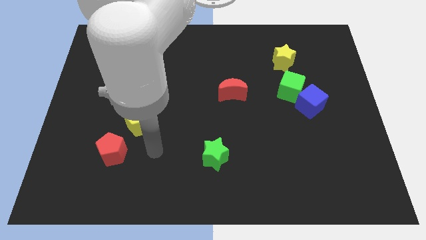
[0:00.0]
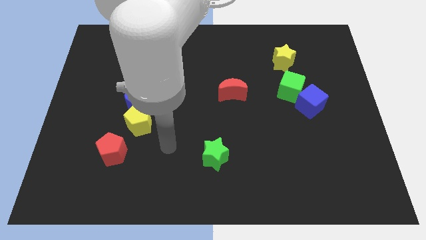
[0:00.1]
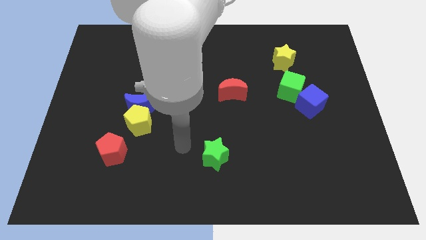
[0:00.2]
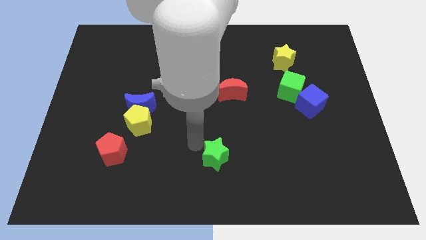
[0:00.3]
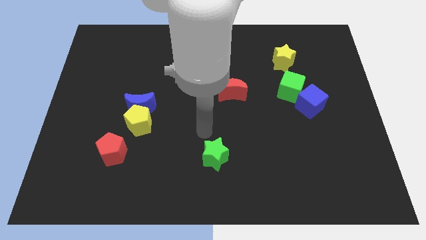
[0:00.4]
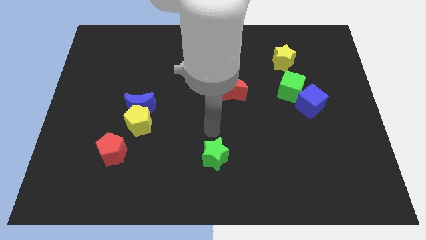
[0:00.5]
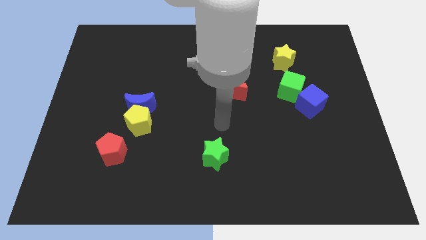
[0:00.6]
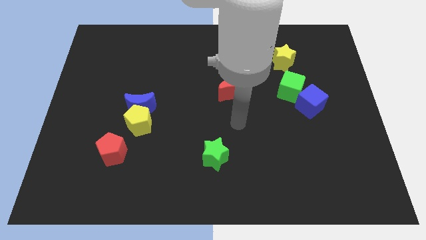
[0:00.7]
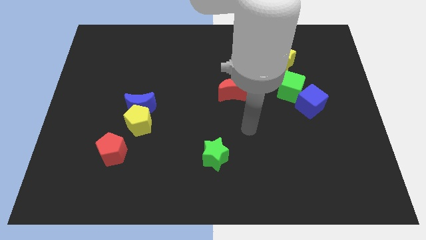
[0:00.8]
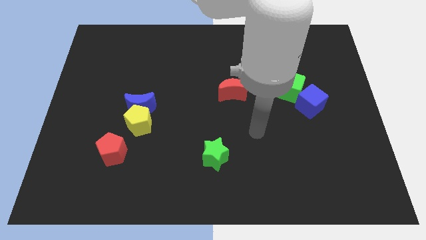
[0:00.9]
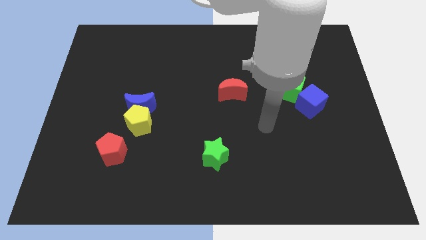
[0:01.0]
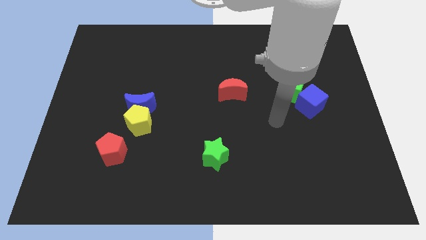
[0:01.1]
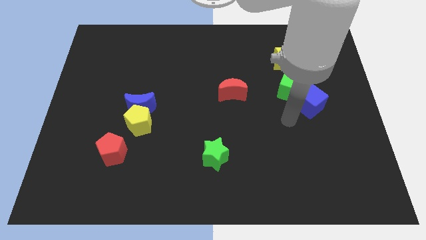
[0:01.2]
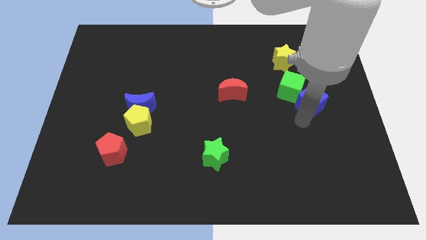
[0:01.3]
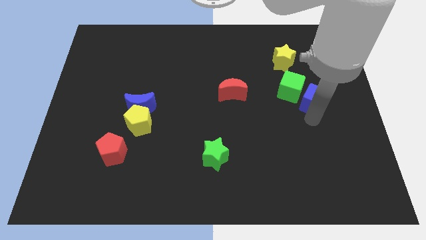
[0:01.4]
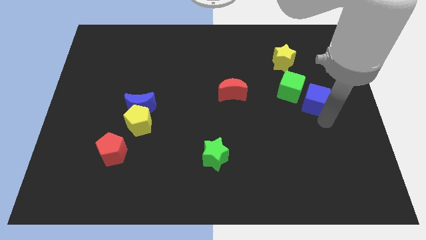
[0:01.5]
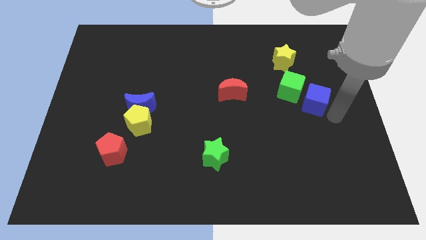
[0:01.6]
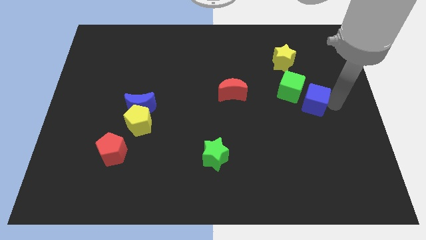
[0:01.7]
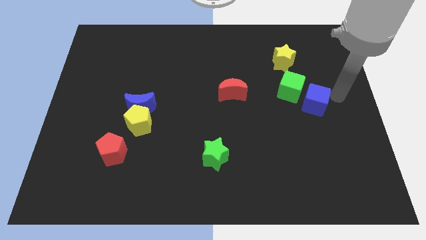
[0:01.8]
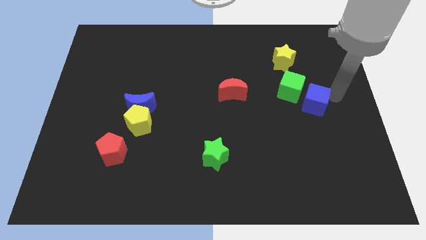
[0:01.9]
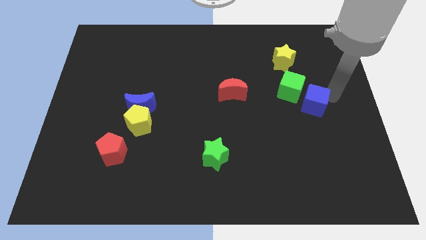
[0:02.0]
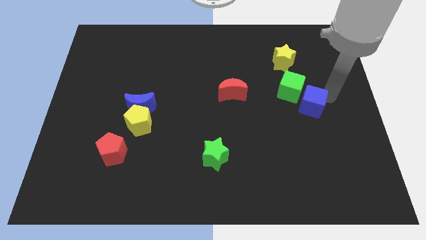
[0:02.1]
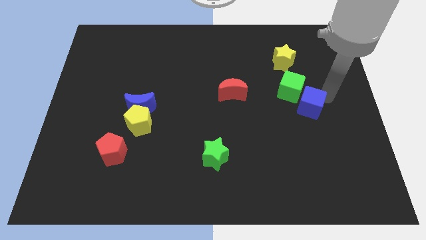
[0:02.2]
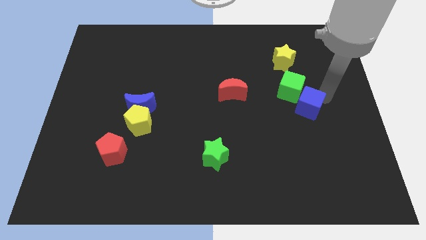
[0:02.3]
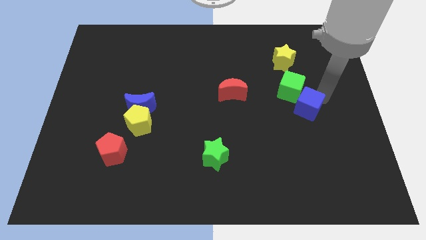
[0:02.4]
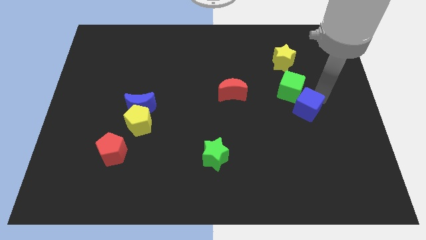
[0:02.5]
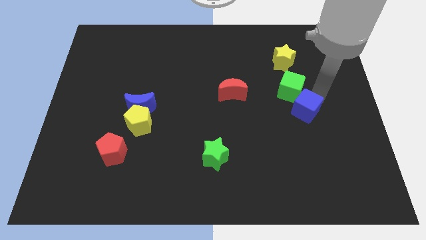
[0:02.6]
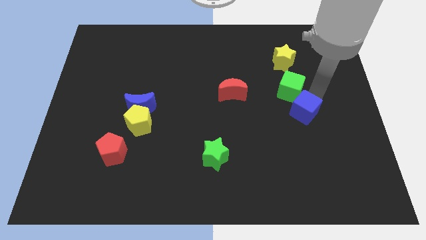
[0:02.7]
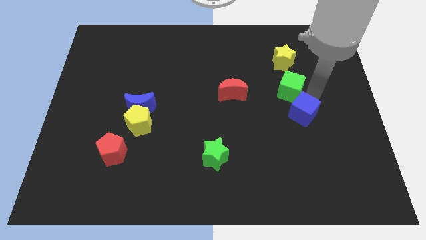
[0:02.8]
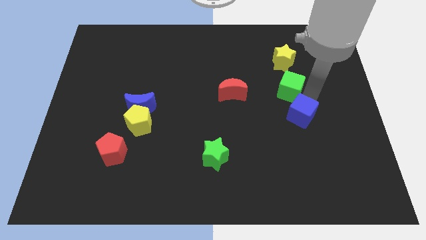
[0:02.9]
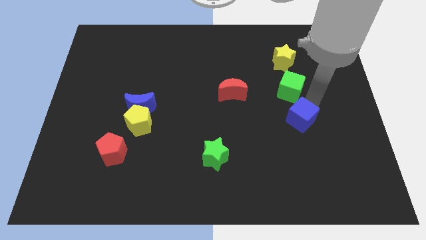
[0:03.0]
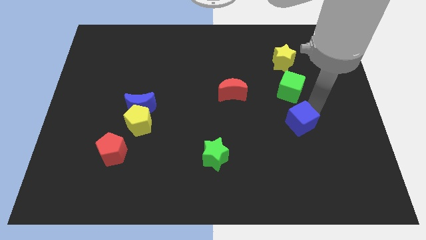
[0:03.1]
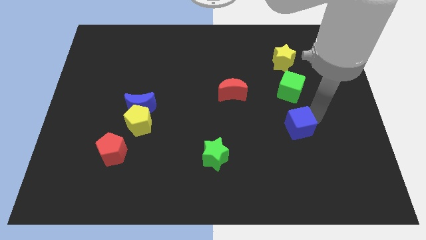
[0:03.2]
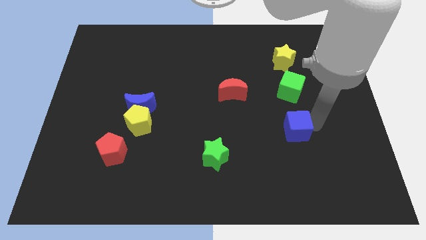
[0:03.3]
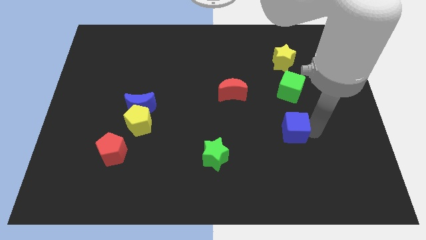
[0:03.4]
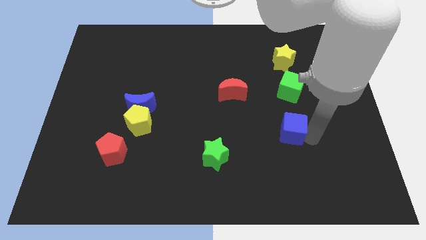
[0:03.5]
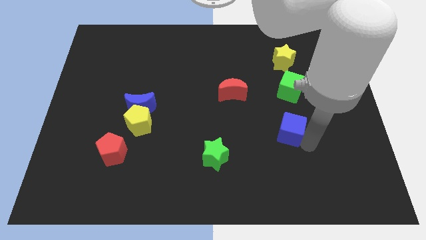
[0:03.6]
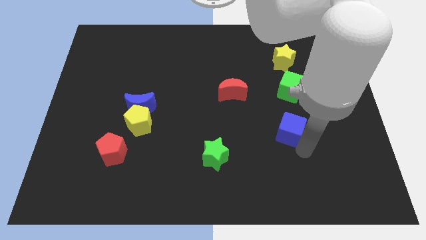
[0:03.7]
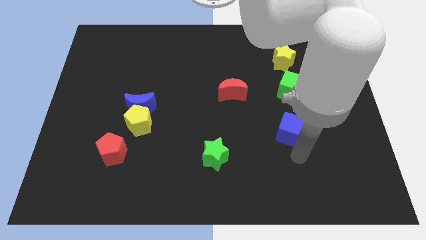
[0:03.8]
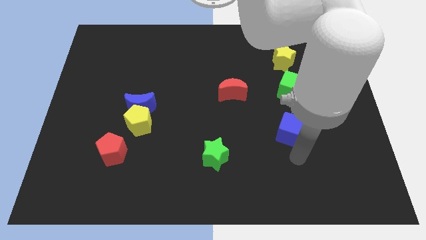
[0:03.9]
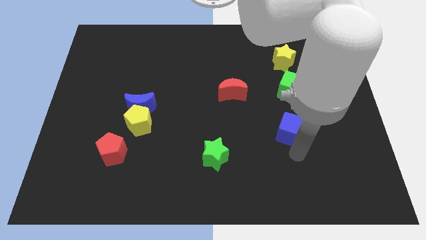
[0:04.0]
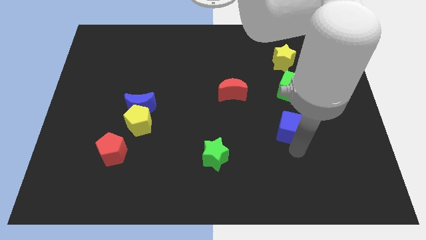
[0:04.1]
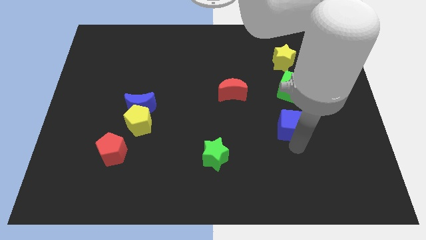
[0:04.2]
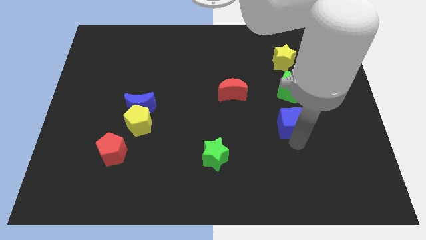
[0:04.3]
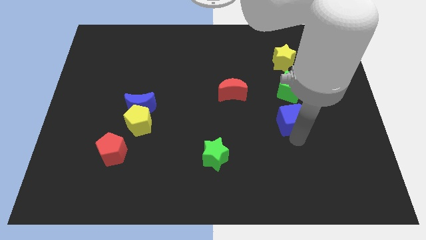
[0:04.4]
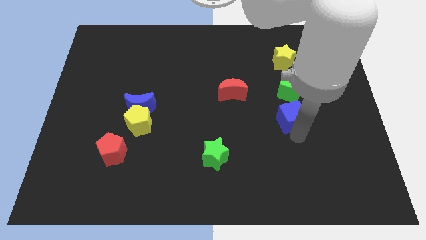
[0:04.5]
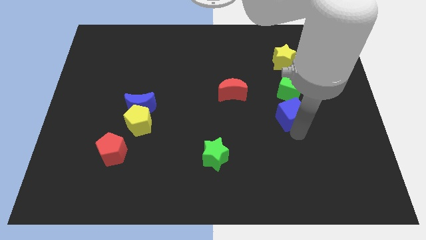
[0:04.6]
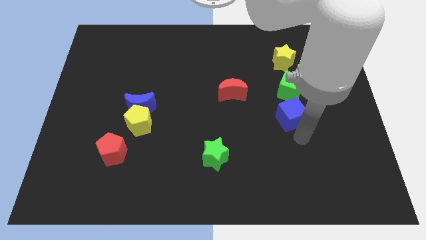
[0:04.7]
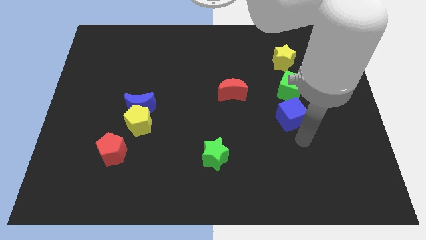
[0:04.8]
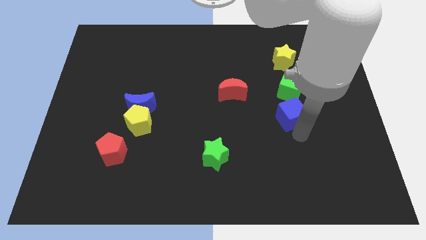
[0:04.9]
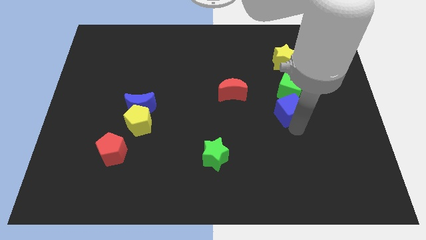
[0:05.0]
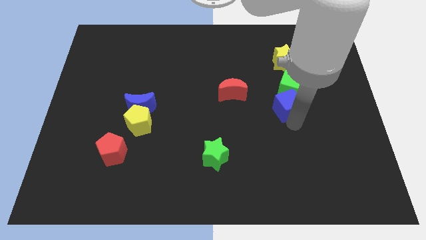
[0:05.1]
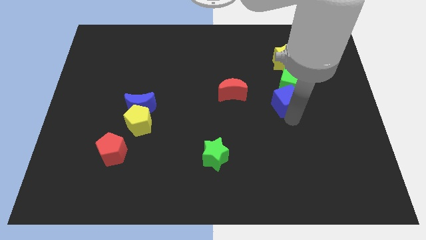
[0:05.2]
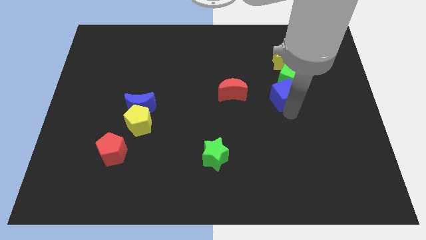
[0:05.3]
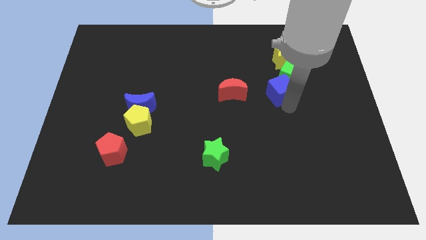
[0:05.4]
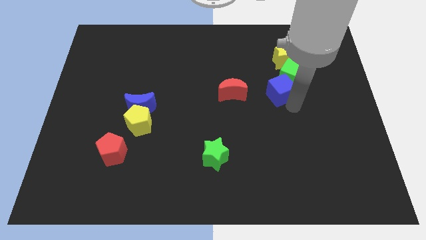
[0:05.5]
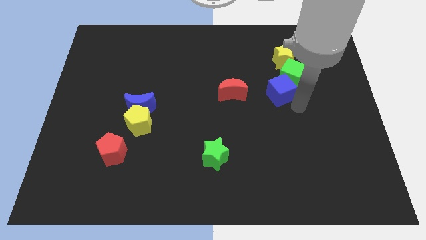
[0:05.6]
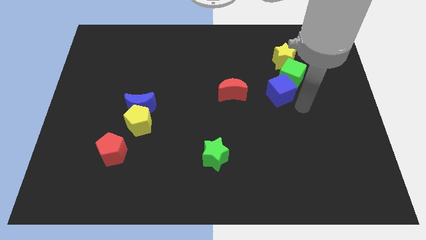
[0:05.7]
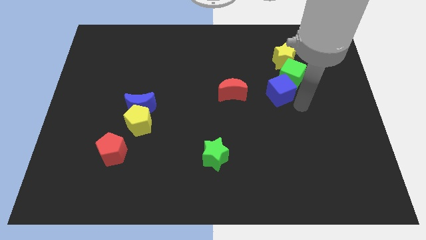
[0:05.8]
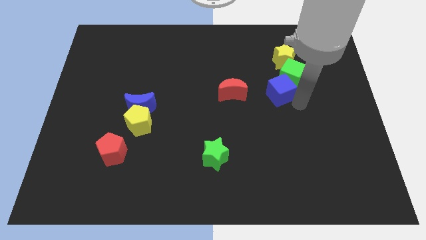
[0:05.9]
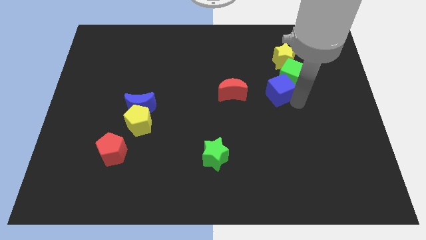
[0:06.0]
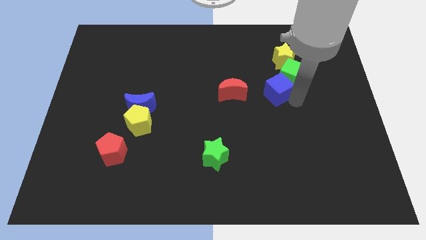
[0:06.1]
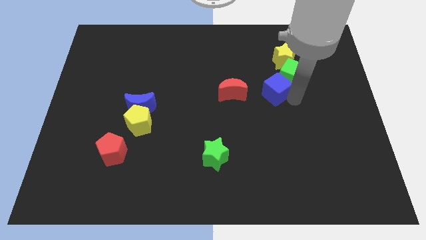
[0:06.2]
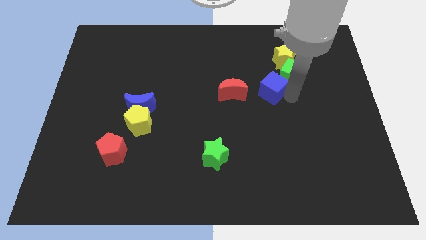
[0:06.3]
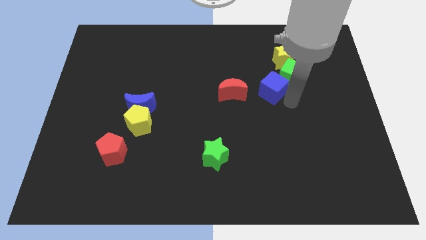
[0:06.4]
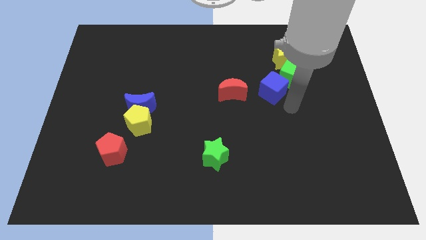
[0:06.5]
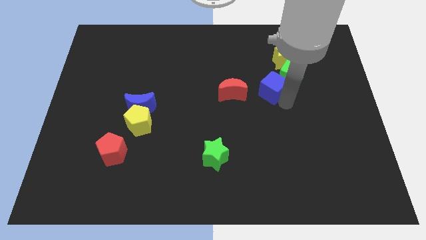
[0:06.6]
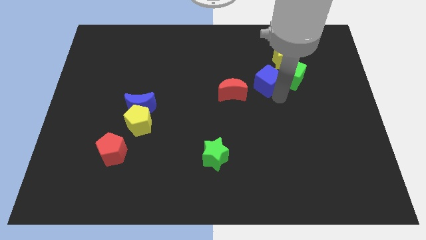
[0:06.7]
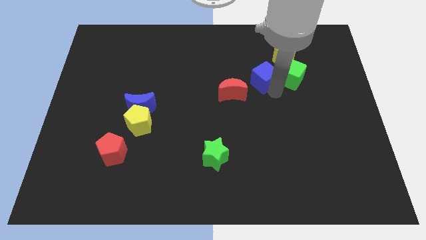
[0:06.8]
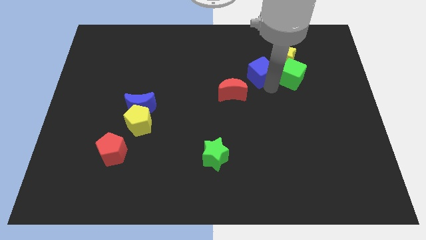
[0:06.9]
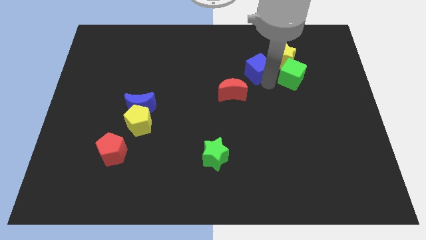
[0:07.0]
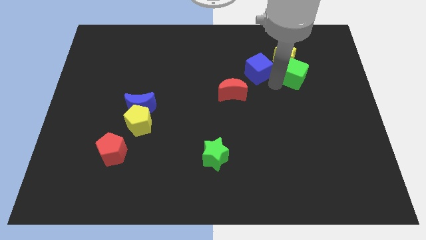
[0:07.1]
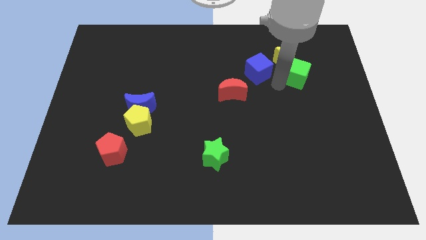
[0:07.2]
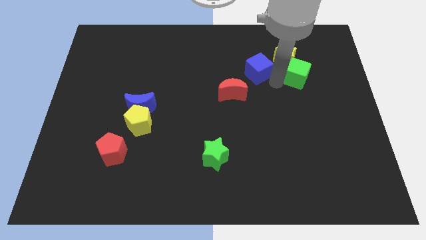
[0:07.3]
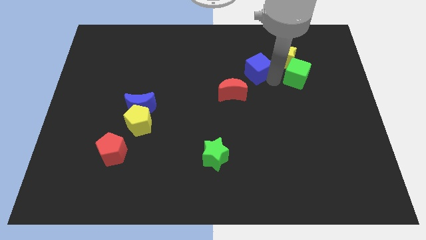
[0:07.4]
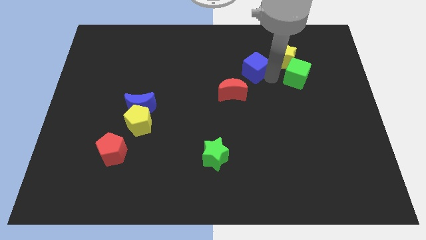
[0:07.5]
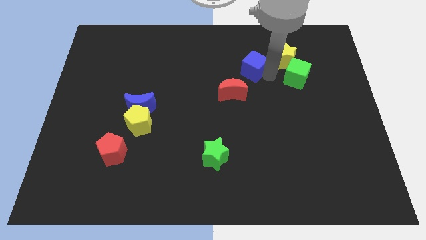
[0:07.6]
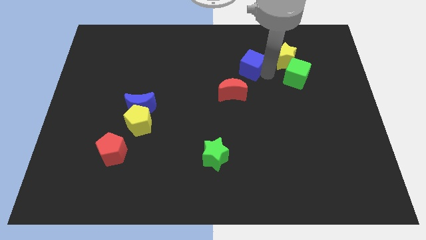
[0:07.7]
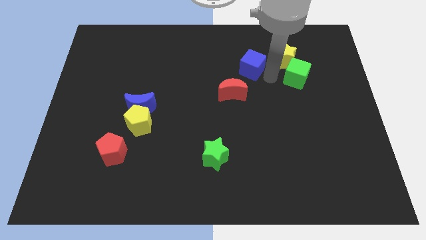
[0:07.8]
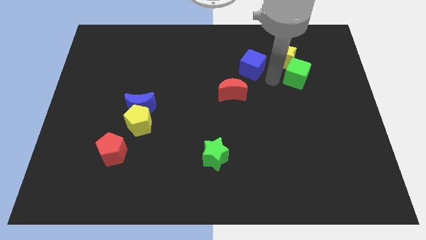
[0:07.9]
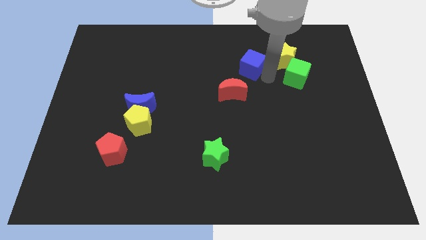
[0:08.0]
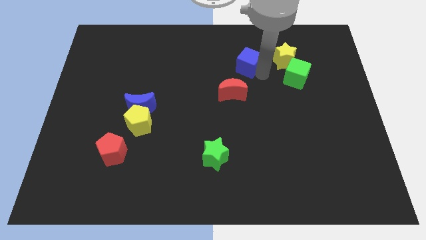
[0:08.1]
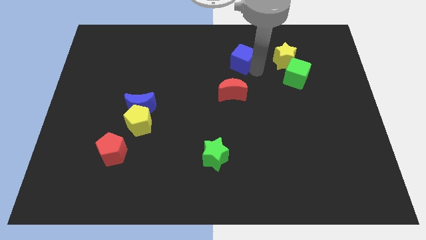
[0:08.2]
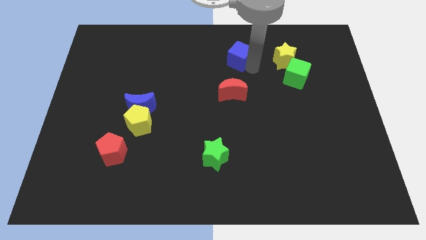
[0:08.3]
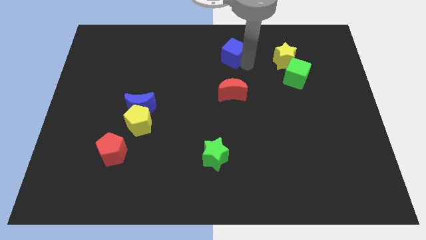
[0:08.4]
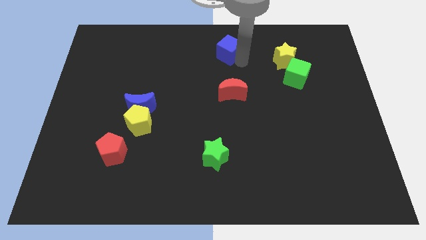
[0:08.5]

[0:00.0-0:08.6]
push the blue cube to the top side
